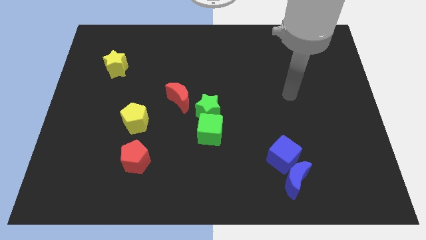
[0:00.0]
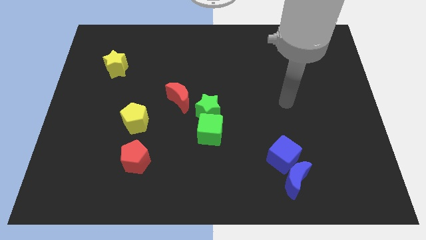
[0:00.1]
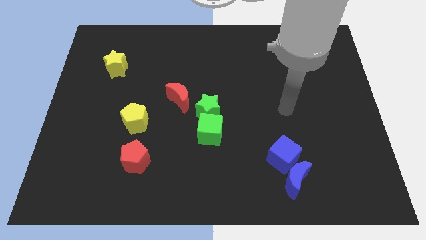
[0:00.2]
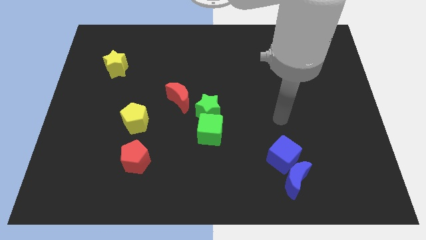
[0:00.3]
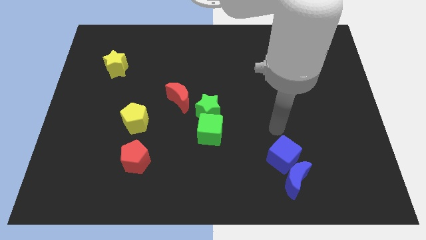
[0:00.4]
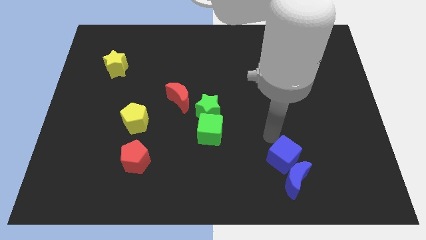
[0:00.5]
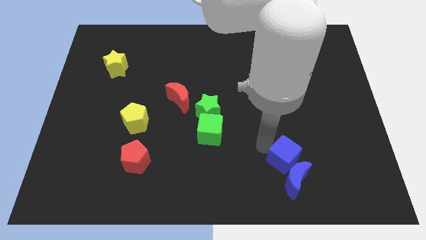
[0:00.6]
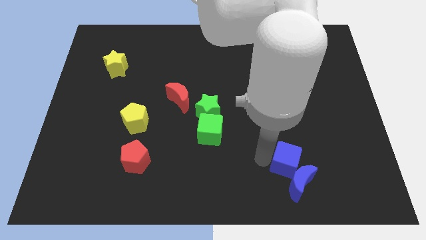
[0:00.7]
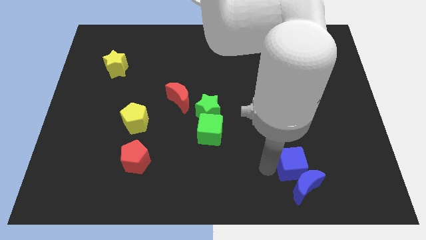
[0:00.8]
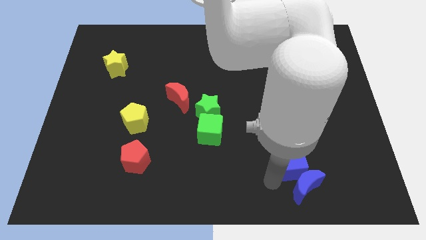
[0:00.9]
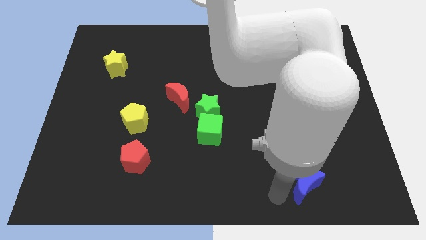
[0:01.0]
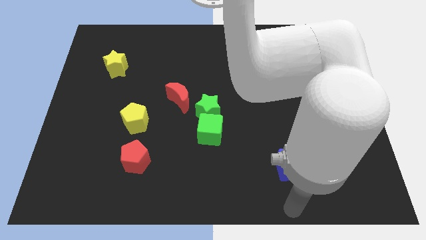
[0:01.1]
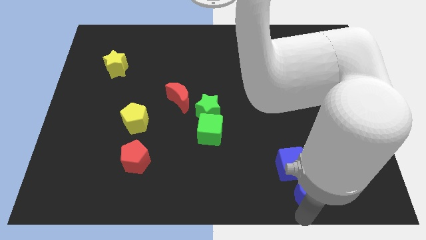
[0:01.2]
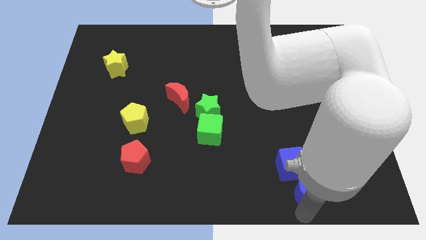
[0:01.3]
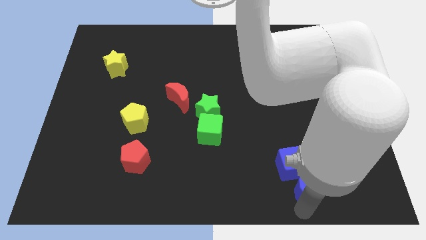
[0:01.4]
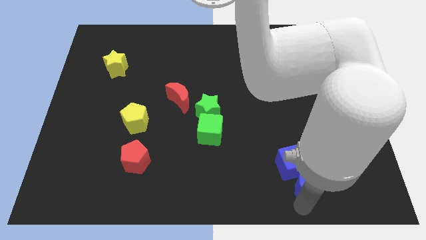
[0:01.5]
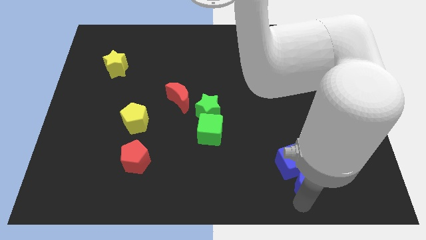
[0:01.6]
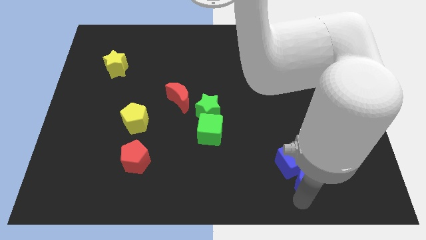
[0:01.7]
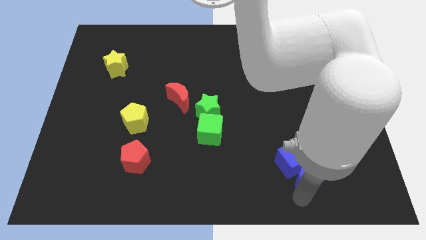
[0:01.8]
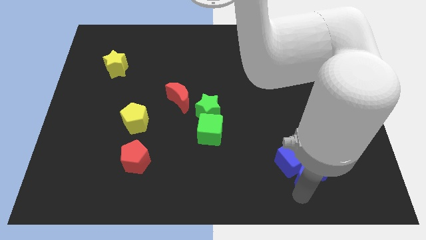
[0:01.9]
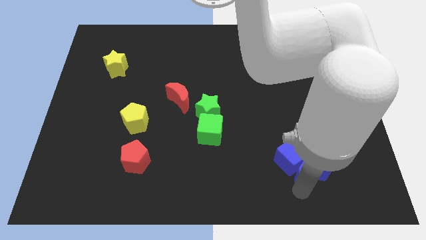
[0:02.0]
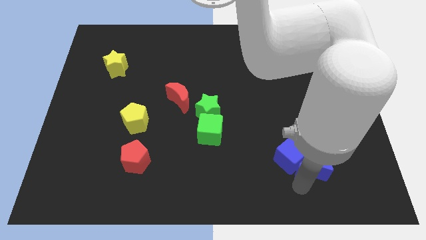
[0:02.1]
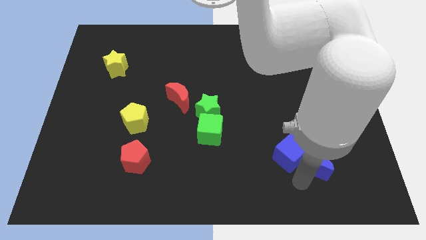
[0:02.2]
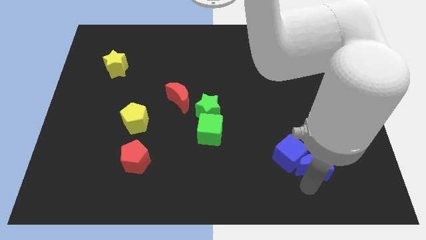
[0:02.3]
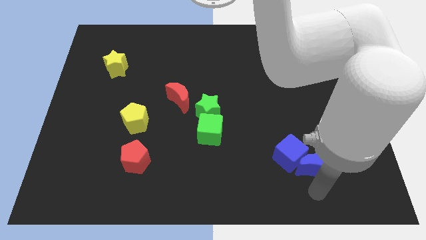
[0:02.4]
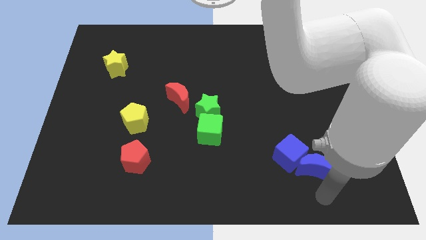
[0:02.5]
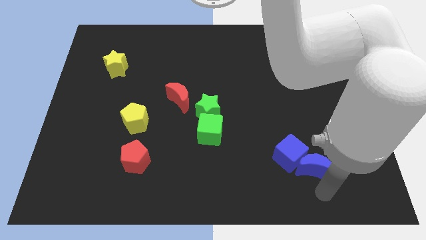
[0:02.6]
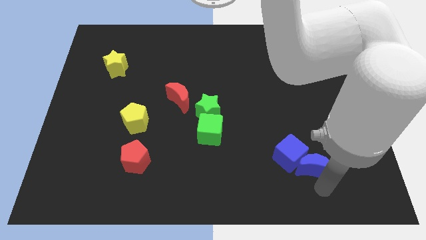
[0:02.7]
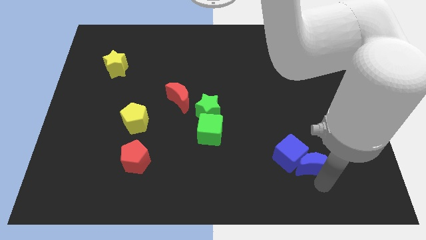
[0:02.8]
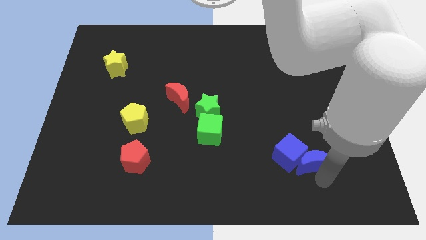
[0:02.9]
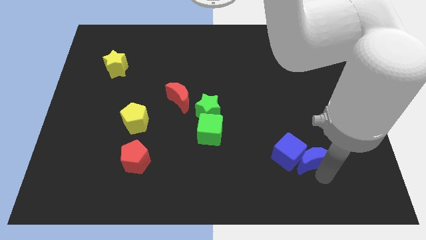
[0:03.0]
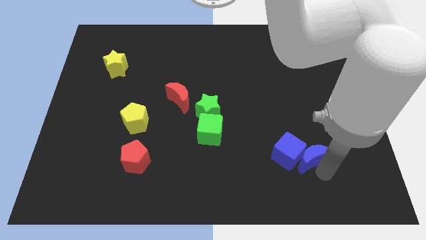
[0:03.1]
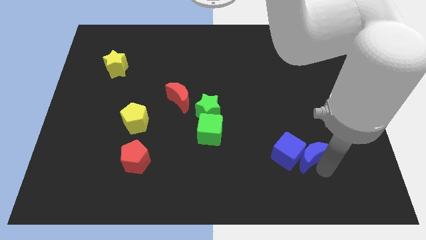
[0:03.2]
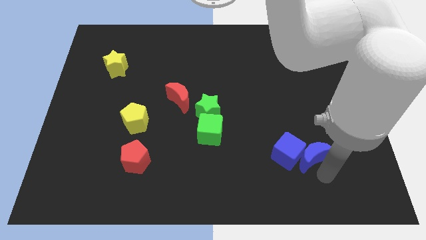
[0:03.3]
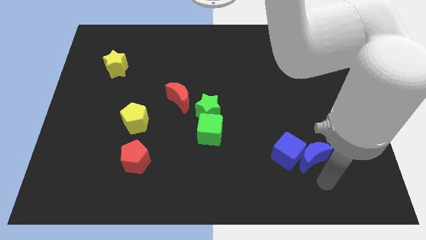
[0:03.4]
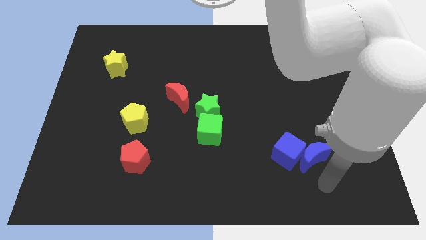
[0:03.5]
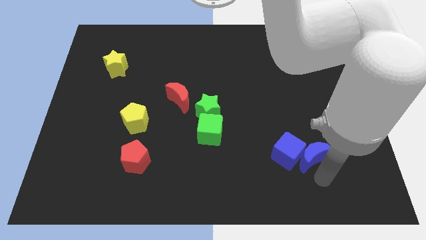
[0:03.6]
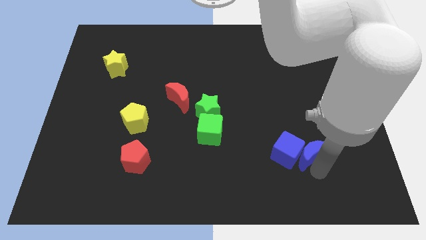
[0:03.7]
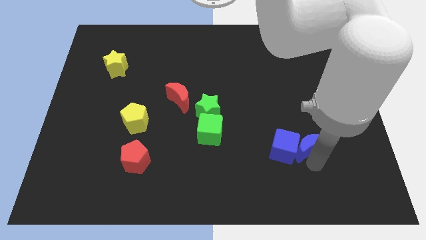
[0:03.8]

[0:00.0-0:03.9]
slide the blue moon up a bit

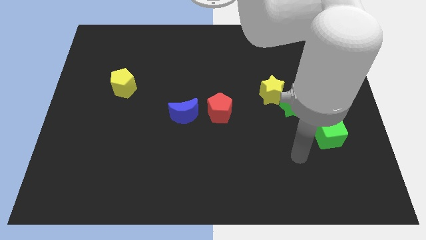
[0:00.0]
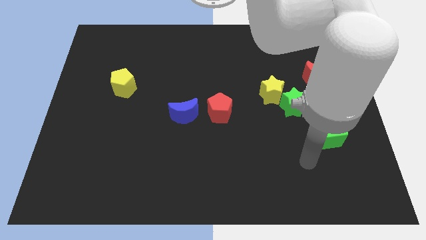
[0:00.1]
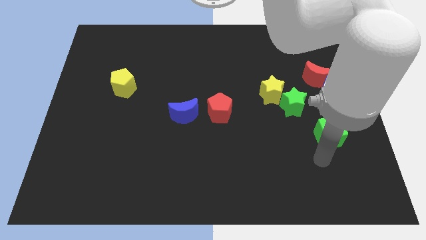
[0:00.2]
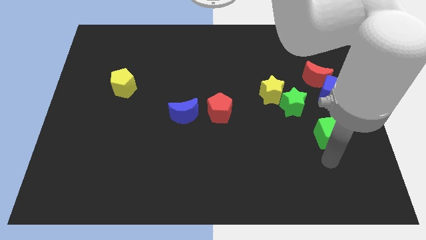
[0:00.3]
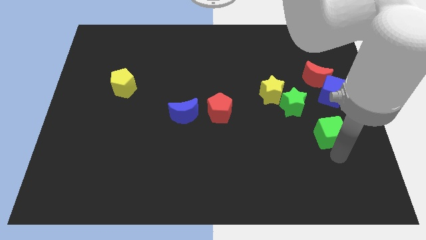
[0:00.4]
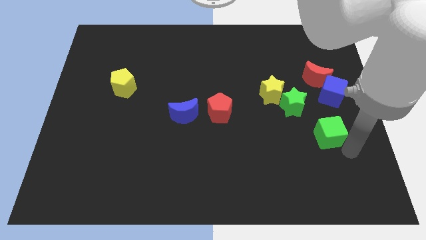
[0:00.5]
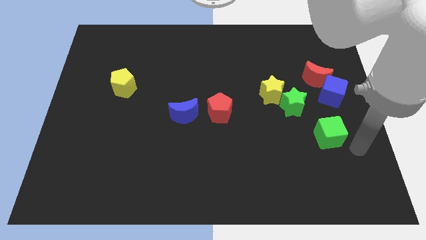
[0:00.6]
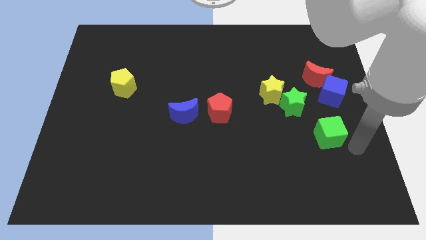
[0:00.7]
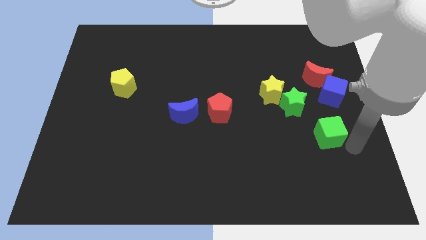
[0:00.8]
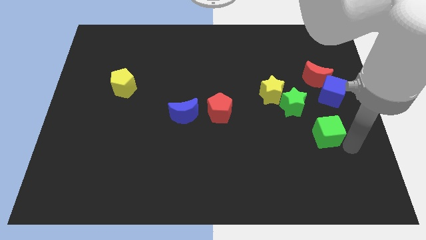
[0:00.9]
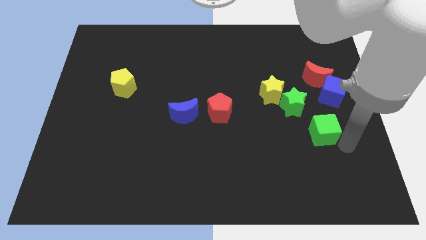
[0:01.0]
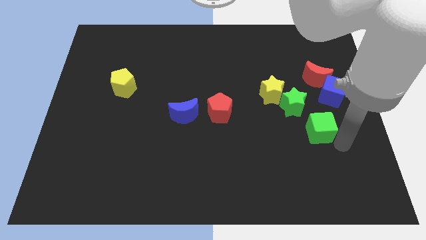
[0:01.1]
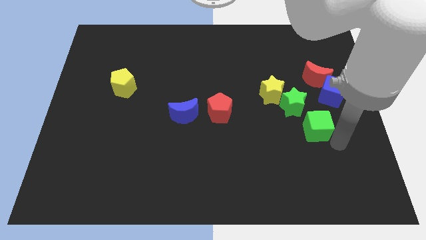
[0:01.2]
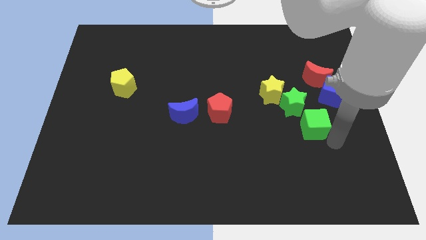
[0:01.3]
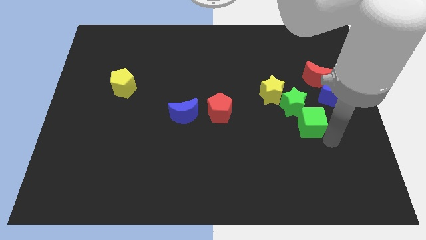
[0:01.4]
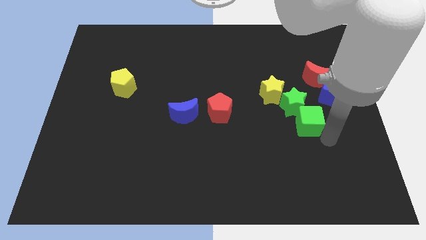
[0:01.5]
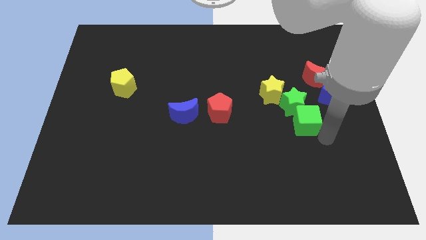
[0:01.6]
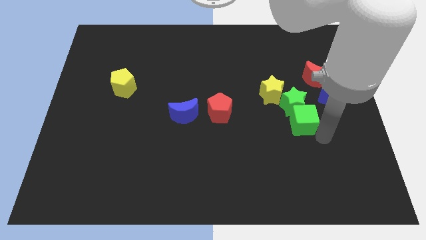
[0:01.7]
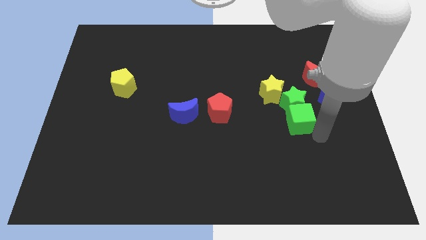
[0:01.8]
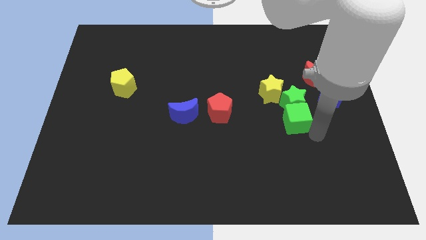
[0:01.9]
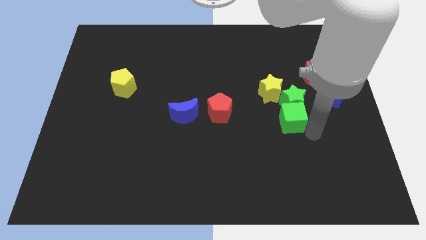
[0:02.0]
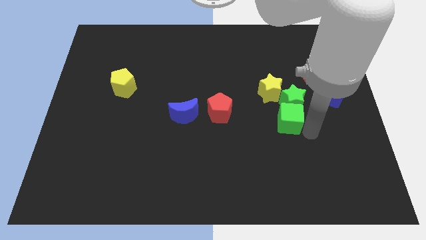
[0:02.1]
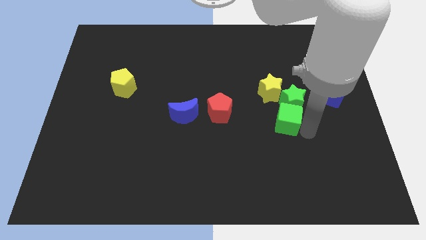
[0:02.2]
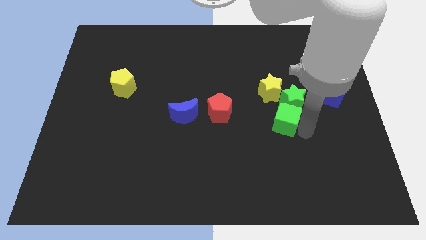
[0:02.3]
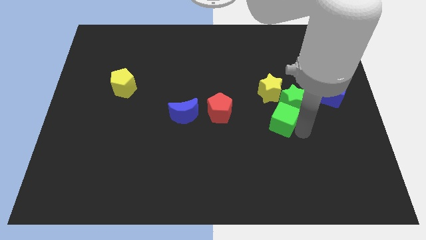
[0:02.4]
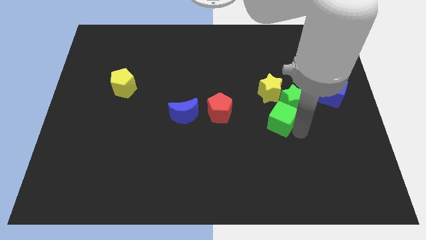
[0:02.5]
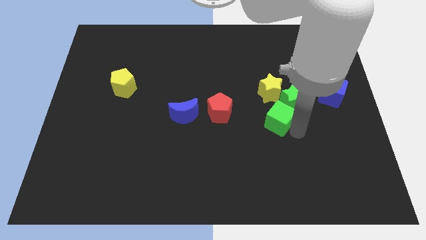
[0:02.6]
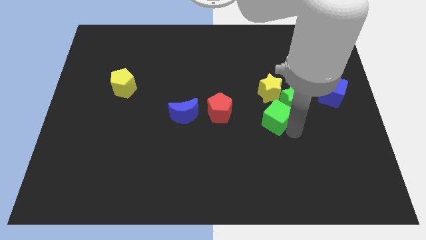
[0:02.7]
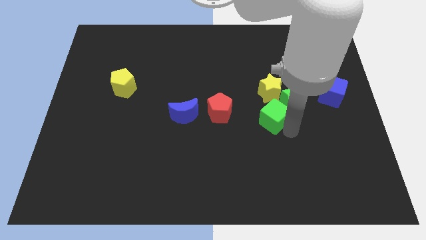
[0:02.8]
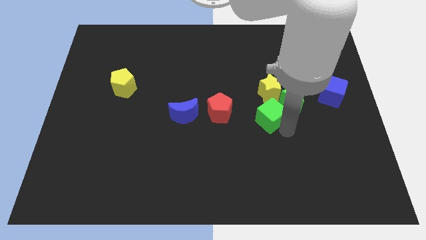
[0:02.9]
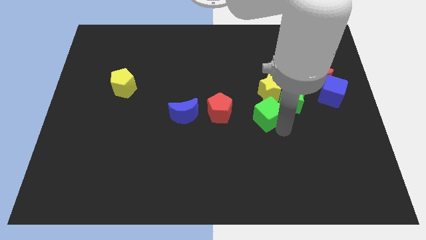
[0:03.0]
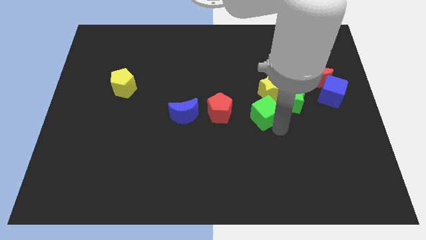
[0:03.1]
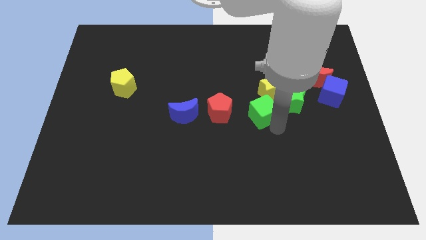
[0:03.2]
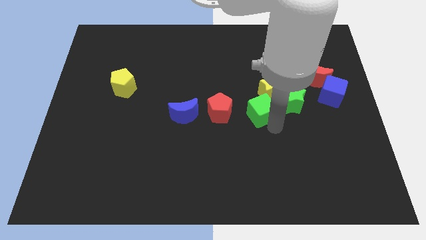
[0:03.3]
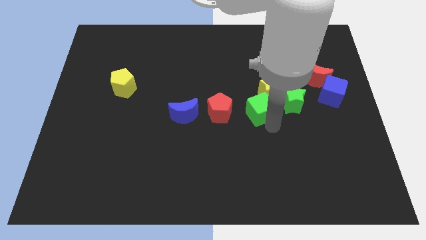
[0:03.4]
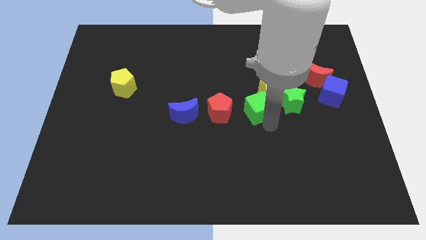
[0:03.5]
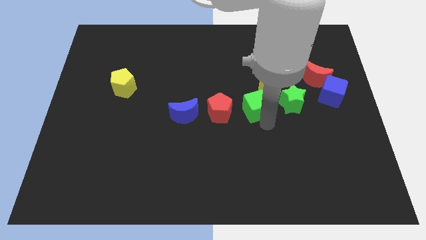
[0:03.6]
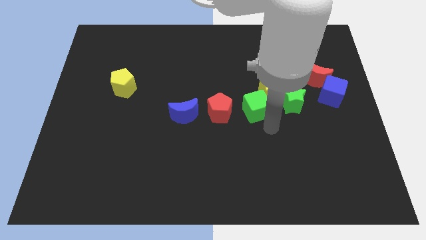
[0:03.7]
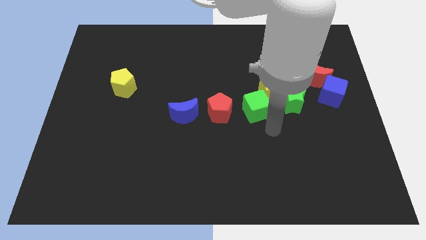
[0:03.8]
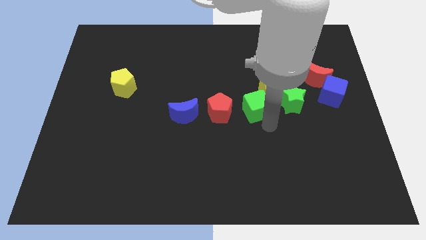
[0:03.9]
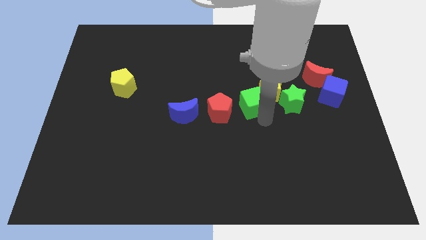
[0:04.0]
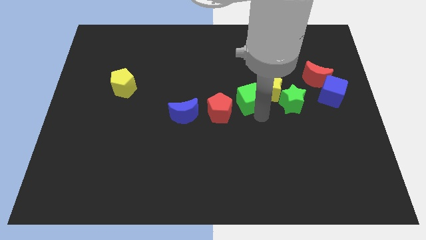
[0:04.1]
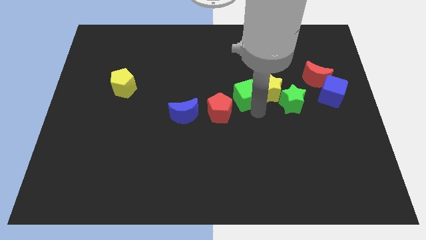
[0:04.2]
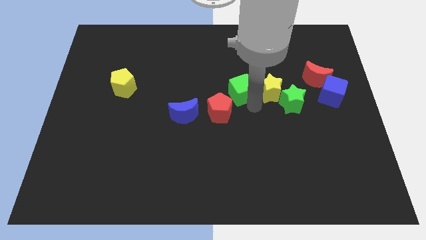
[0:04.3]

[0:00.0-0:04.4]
slide the green cube up and to the left
